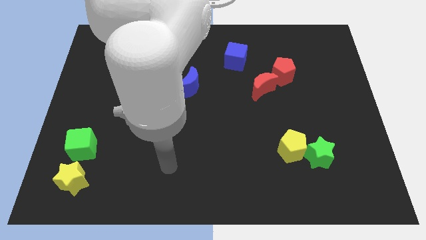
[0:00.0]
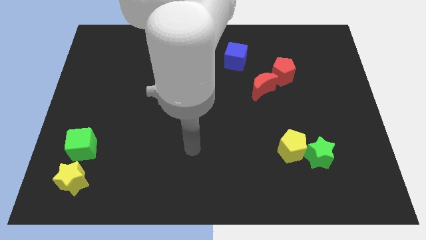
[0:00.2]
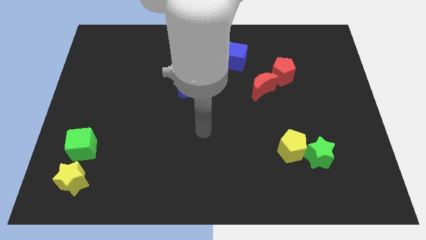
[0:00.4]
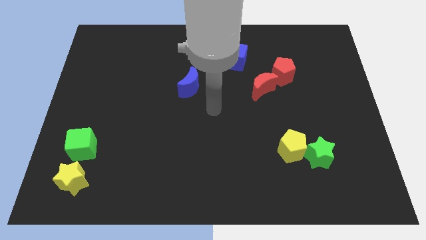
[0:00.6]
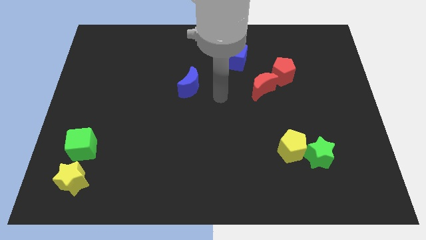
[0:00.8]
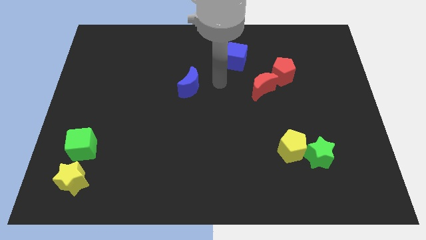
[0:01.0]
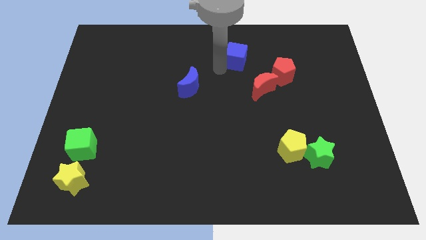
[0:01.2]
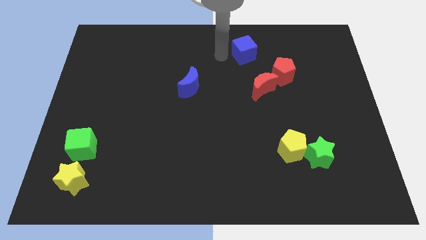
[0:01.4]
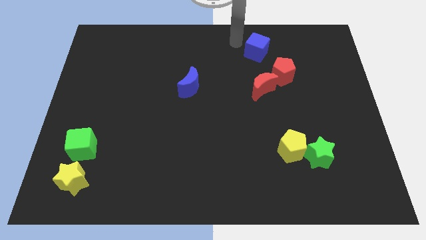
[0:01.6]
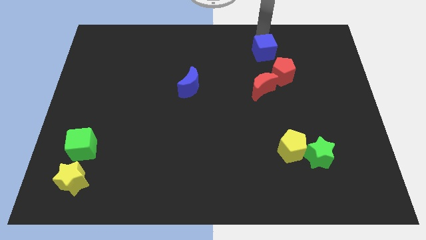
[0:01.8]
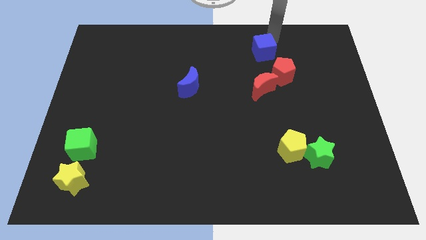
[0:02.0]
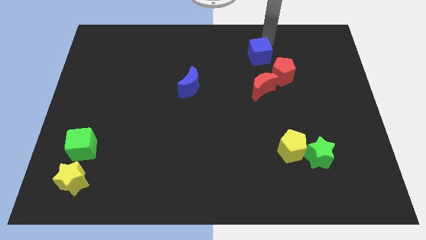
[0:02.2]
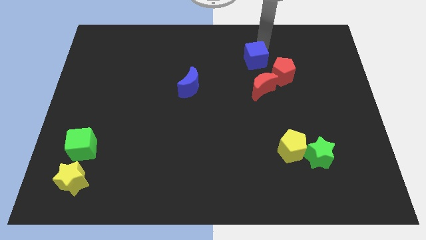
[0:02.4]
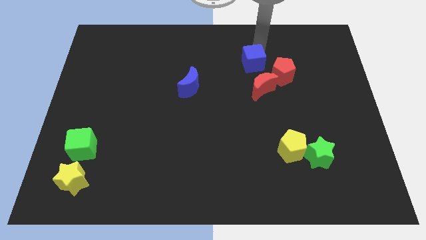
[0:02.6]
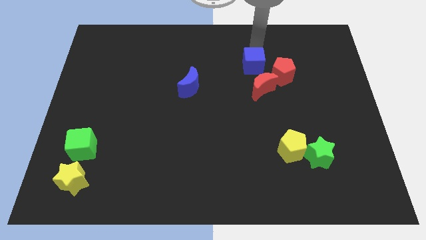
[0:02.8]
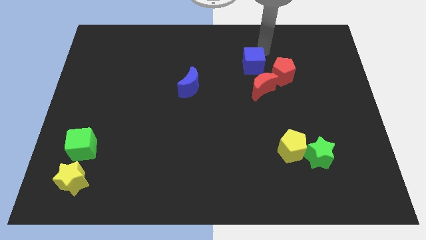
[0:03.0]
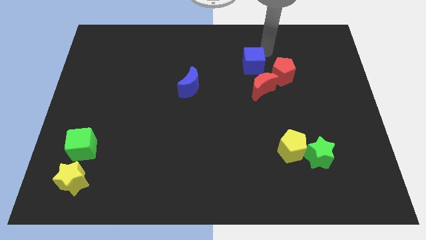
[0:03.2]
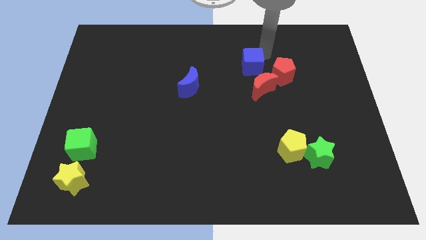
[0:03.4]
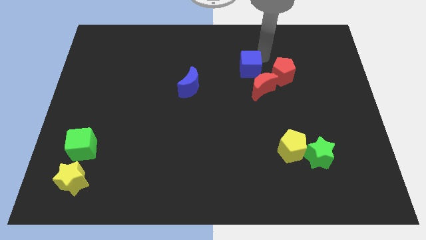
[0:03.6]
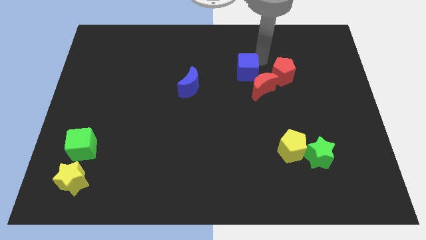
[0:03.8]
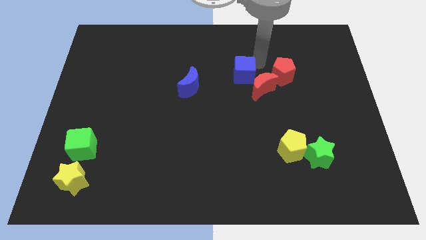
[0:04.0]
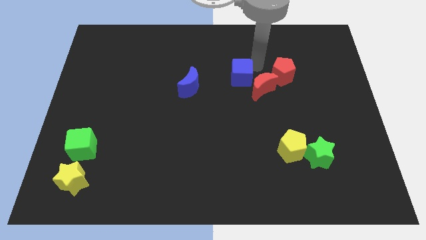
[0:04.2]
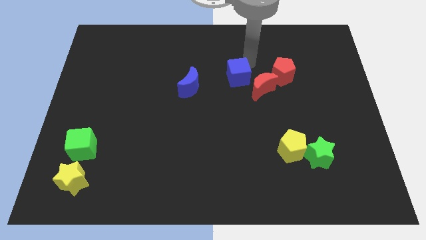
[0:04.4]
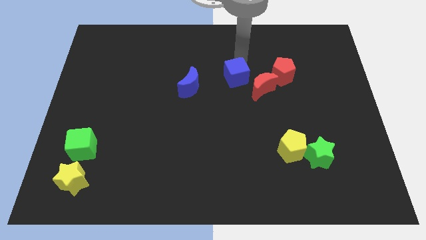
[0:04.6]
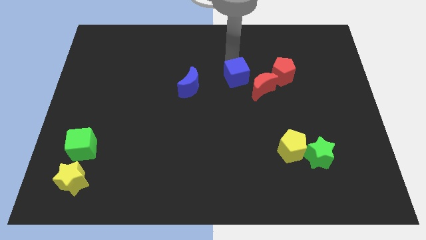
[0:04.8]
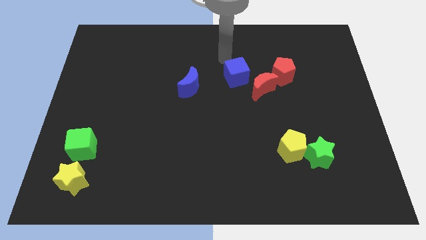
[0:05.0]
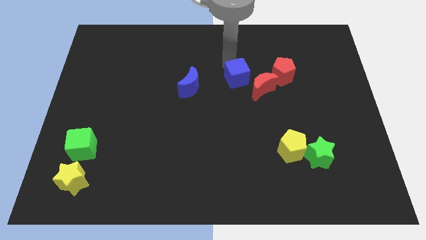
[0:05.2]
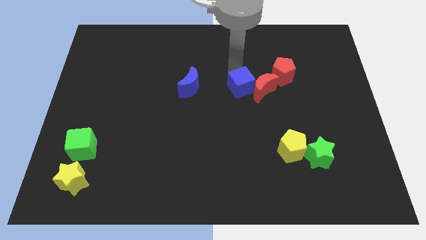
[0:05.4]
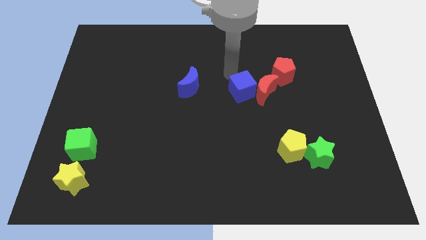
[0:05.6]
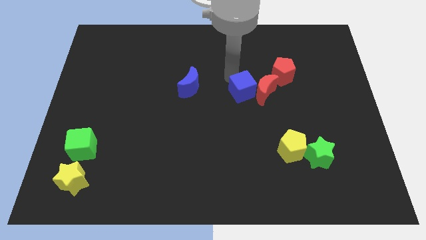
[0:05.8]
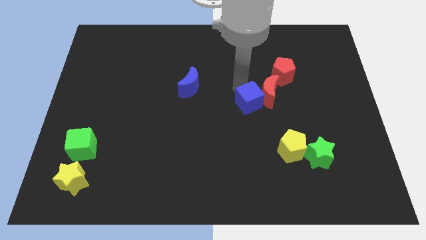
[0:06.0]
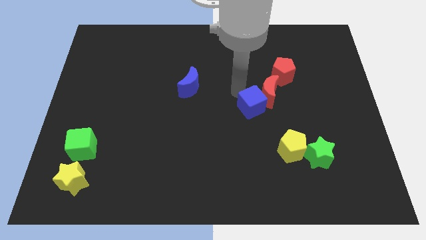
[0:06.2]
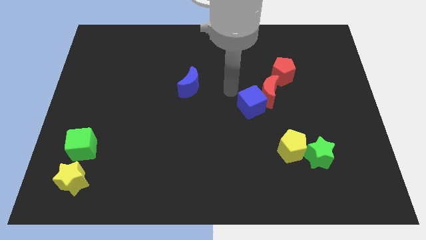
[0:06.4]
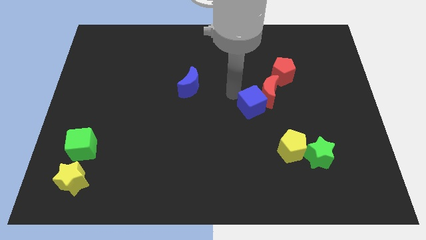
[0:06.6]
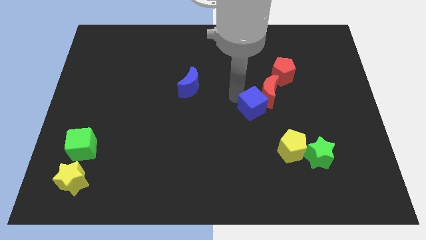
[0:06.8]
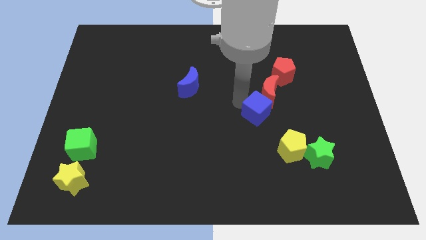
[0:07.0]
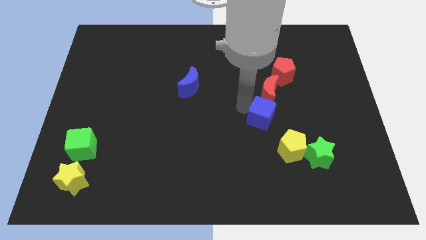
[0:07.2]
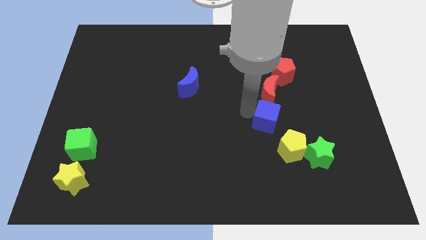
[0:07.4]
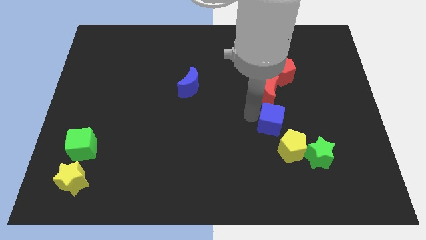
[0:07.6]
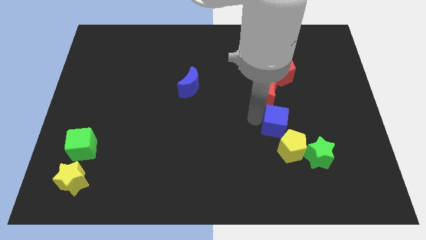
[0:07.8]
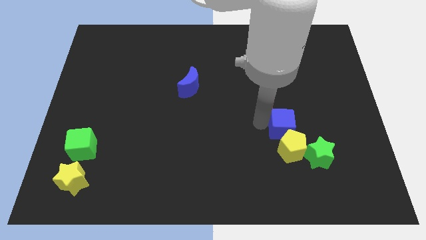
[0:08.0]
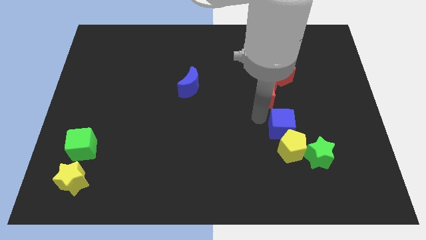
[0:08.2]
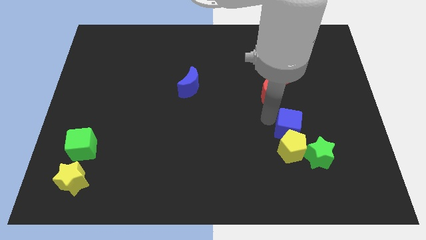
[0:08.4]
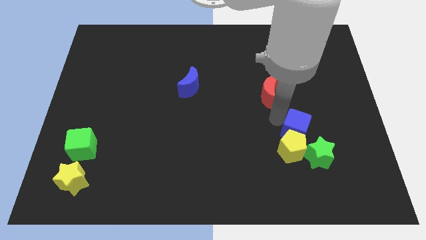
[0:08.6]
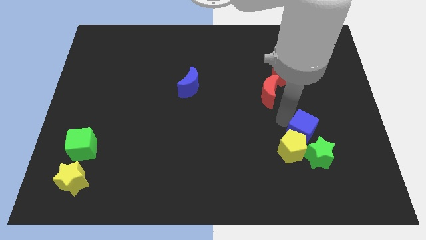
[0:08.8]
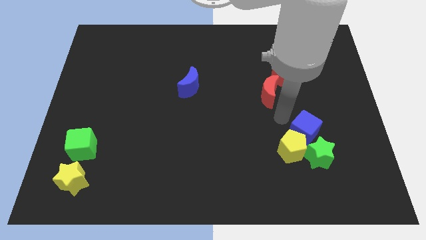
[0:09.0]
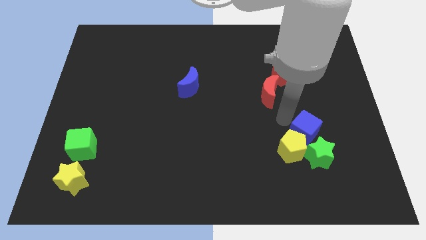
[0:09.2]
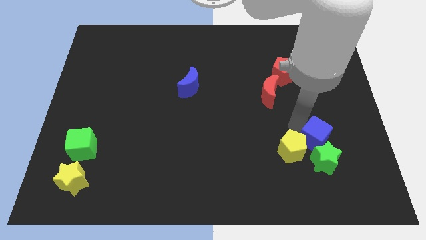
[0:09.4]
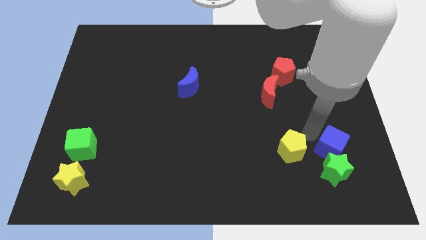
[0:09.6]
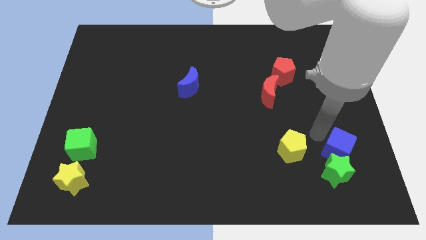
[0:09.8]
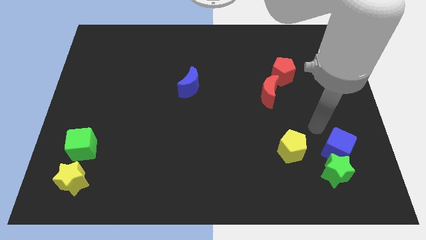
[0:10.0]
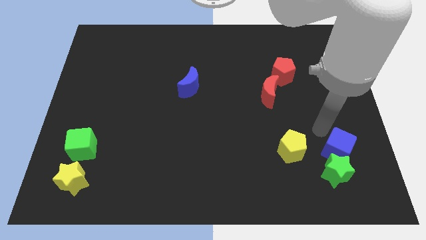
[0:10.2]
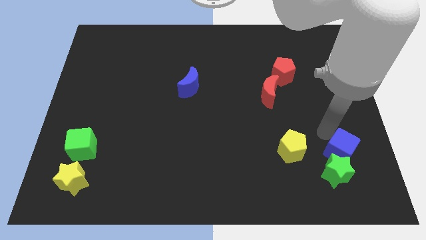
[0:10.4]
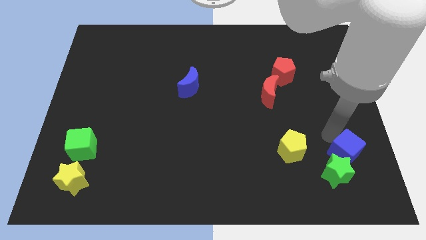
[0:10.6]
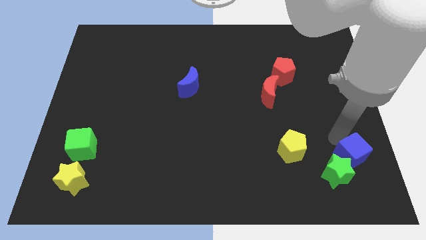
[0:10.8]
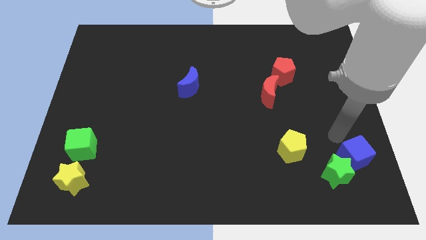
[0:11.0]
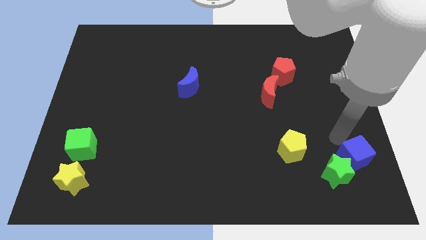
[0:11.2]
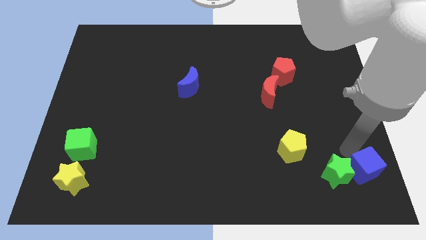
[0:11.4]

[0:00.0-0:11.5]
move the blue cube to the bottom right corner

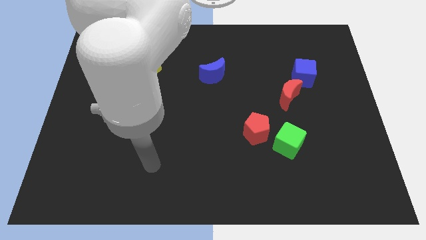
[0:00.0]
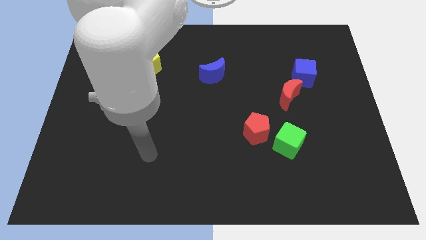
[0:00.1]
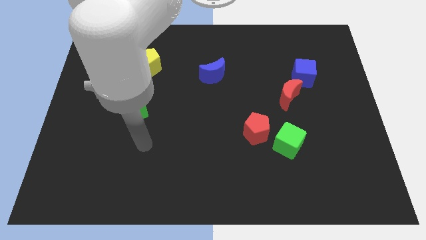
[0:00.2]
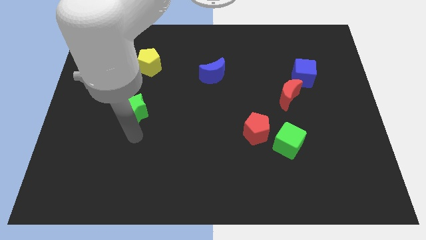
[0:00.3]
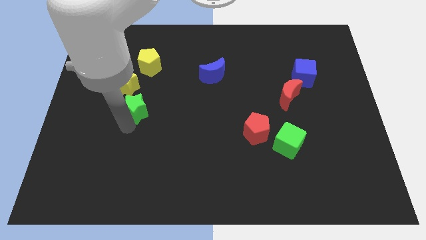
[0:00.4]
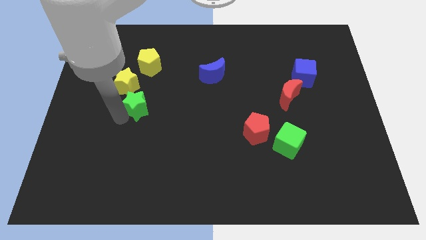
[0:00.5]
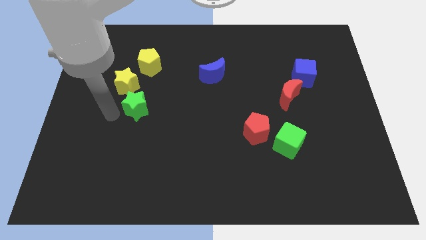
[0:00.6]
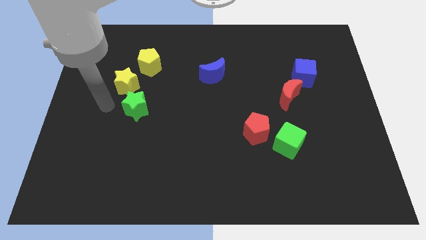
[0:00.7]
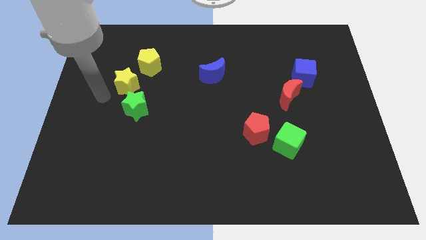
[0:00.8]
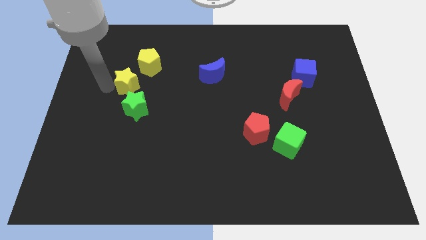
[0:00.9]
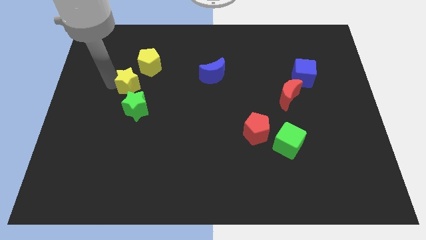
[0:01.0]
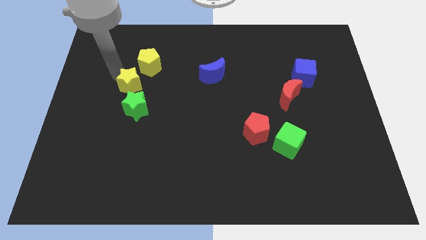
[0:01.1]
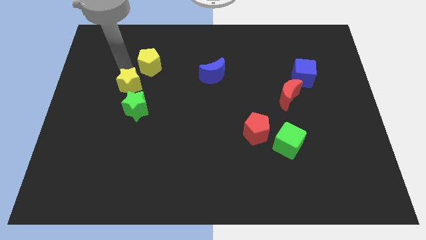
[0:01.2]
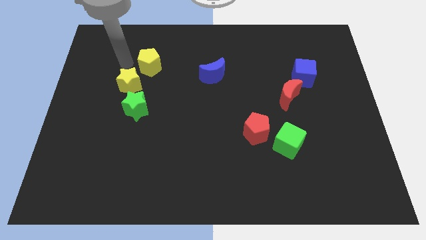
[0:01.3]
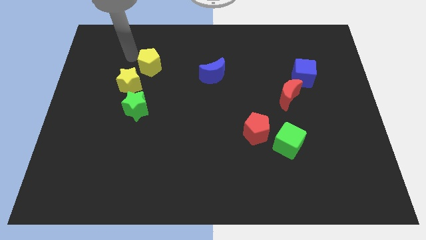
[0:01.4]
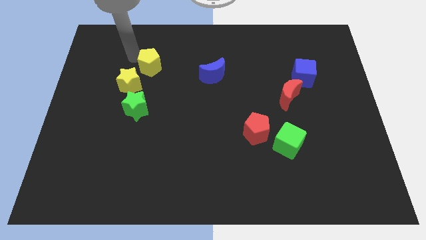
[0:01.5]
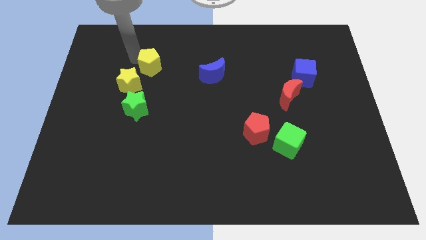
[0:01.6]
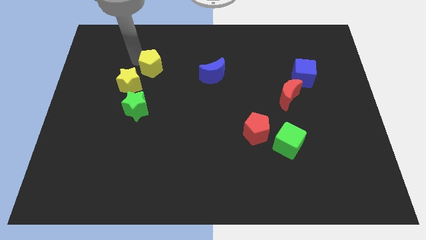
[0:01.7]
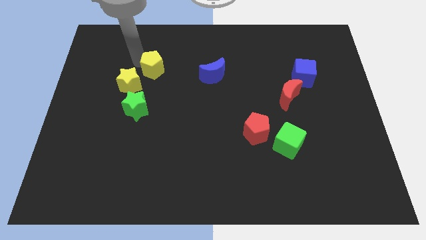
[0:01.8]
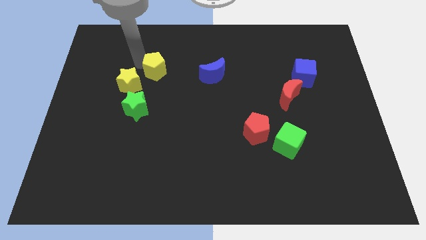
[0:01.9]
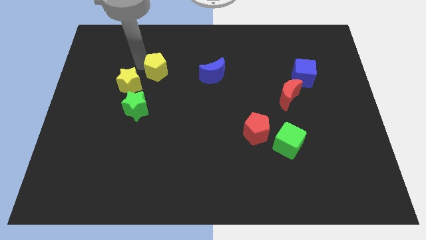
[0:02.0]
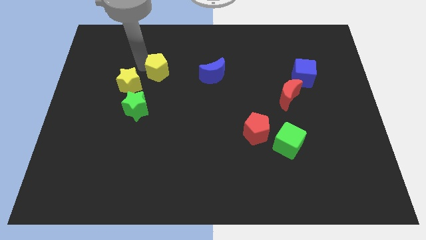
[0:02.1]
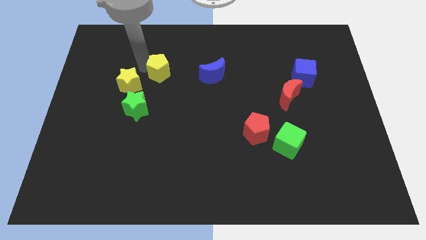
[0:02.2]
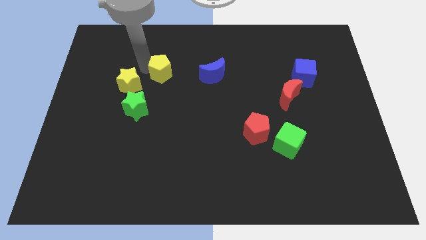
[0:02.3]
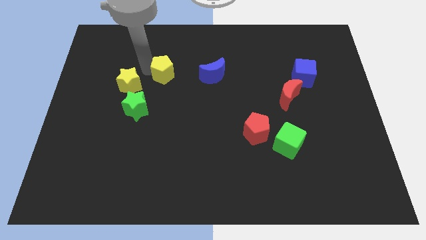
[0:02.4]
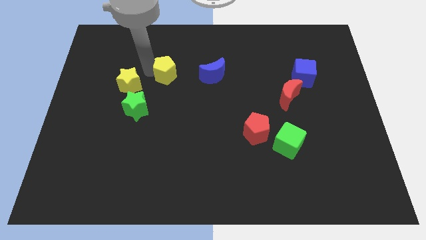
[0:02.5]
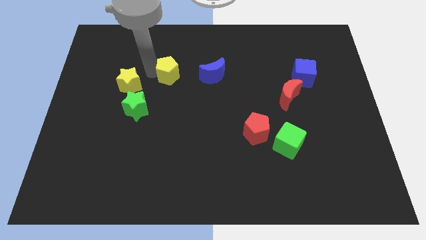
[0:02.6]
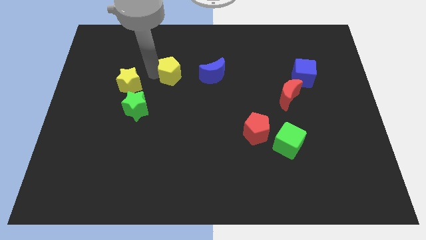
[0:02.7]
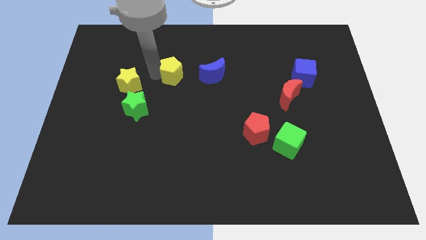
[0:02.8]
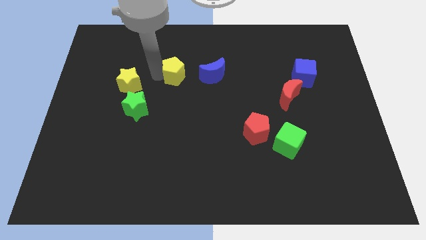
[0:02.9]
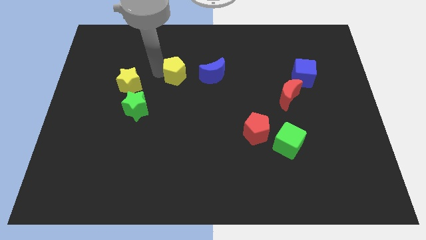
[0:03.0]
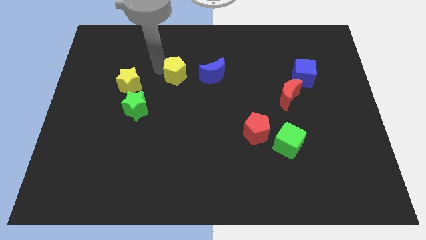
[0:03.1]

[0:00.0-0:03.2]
push the yellow pentagon to the center
